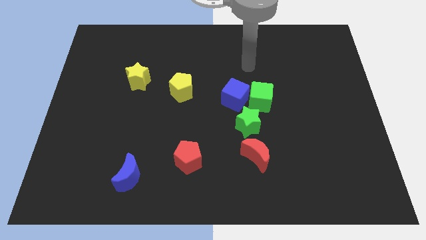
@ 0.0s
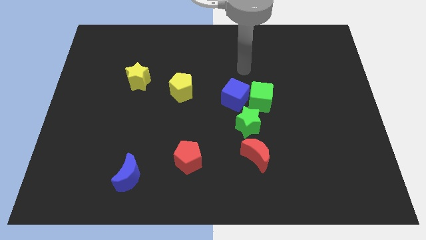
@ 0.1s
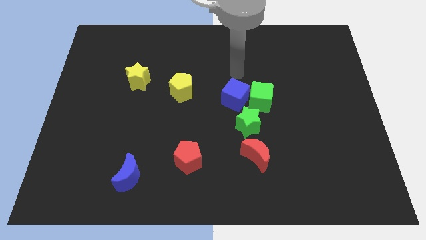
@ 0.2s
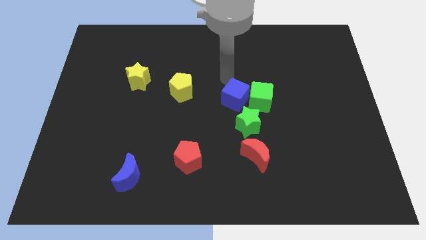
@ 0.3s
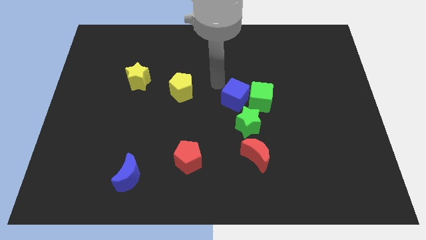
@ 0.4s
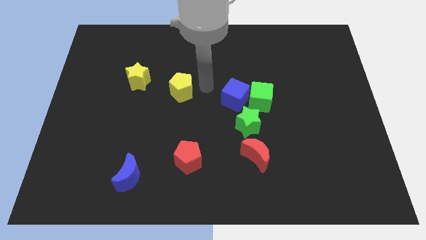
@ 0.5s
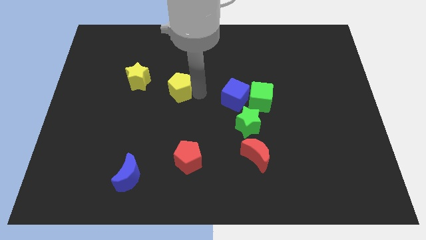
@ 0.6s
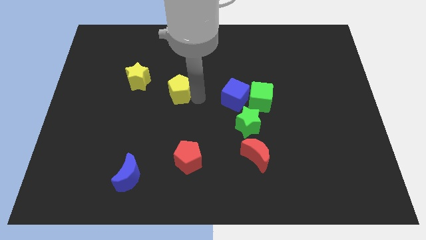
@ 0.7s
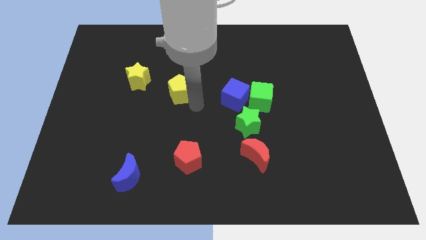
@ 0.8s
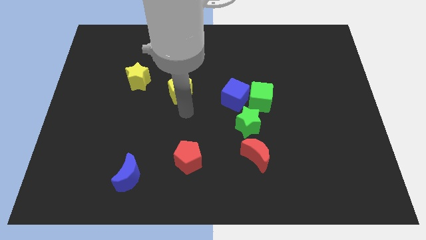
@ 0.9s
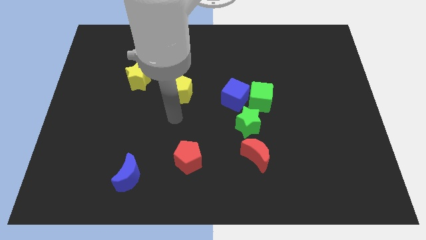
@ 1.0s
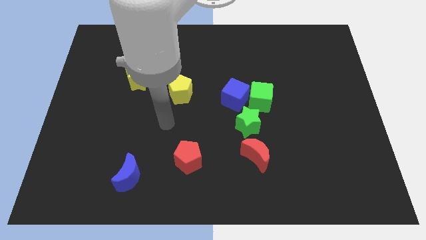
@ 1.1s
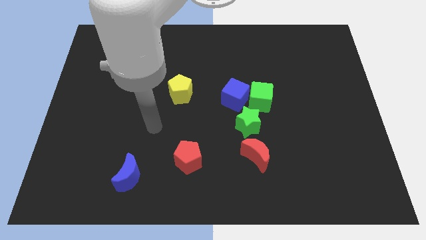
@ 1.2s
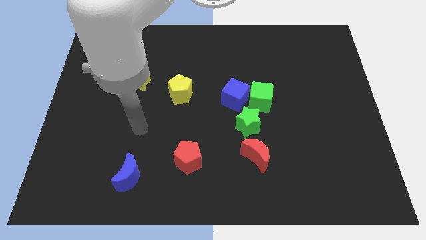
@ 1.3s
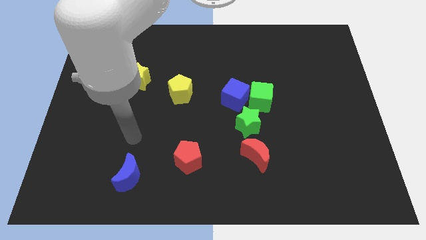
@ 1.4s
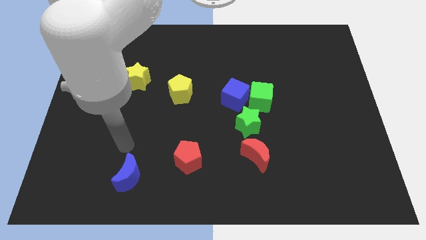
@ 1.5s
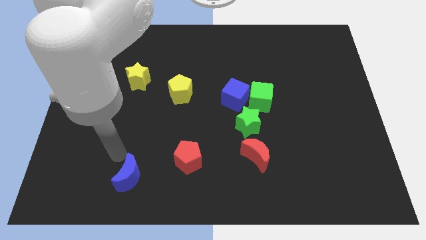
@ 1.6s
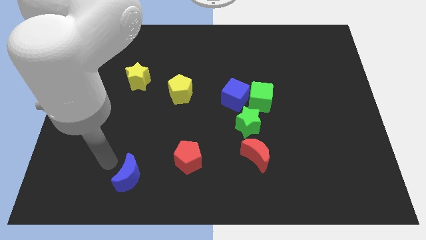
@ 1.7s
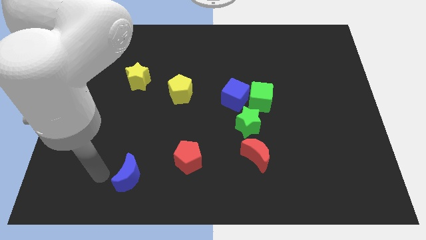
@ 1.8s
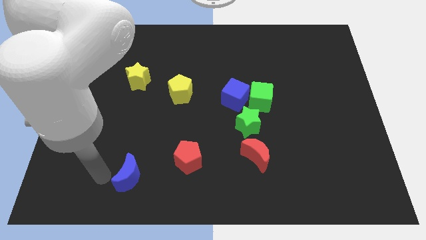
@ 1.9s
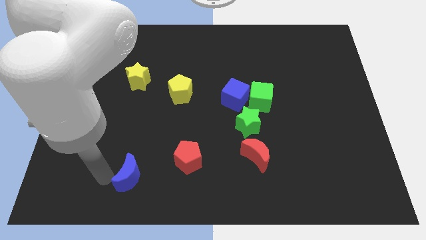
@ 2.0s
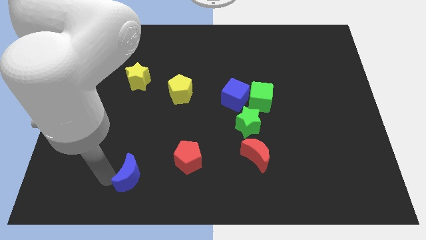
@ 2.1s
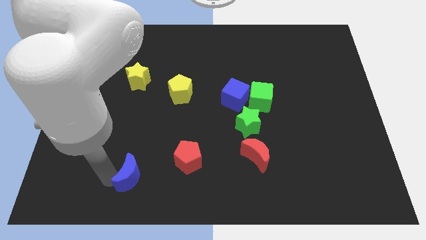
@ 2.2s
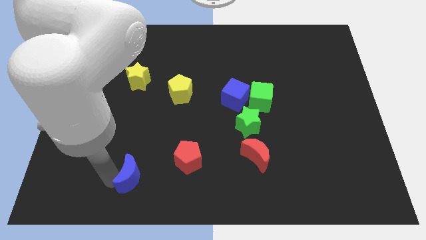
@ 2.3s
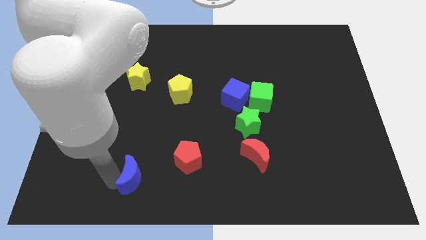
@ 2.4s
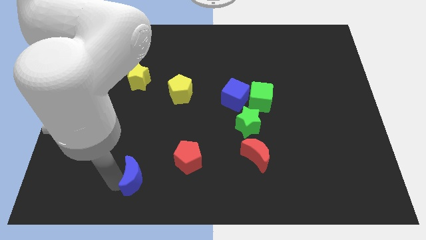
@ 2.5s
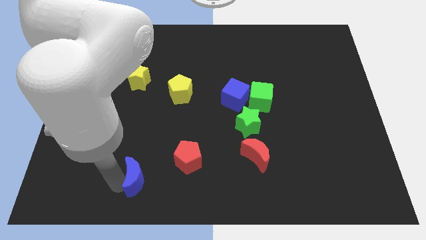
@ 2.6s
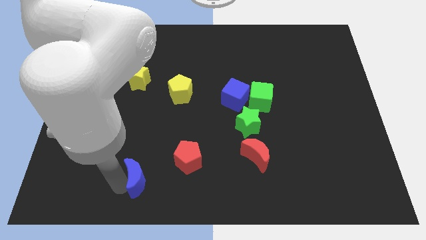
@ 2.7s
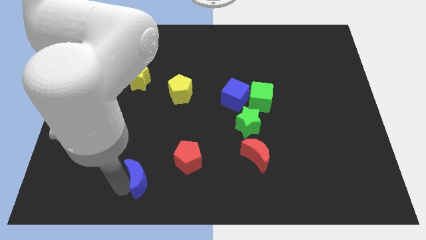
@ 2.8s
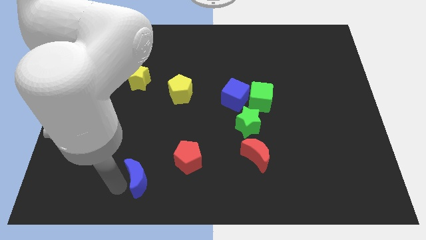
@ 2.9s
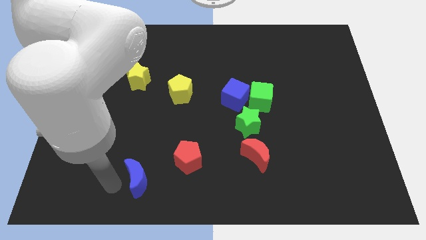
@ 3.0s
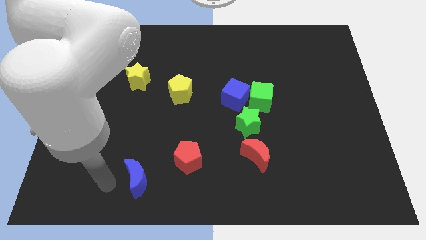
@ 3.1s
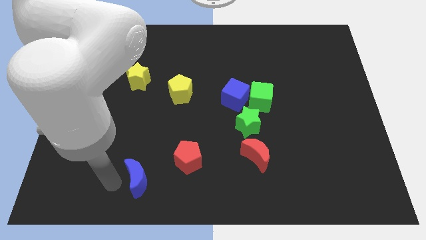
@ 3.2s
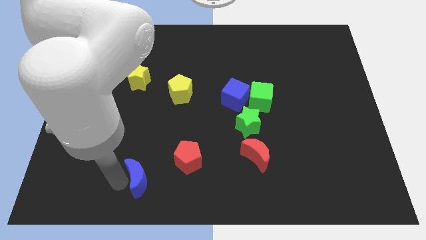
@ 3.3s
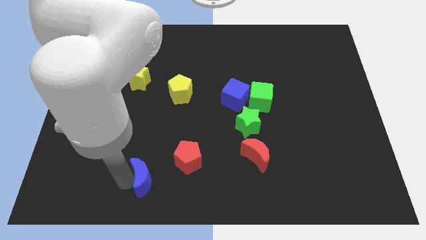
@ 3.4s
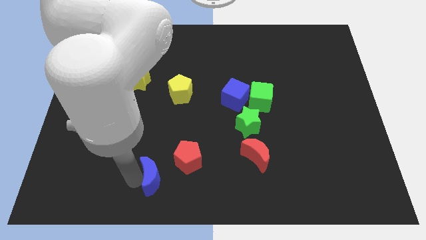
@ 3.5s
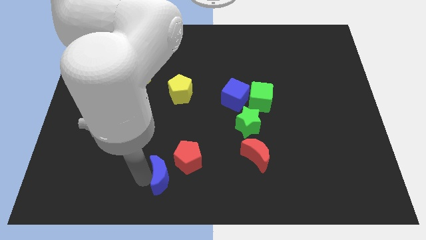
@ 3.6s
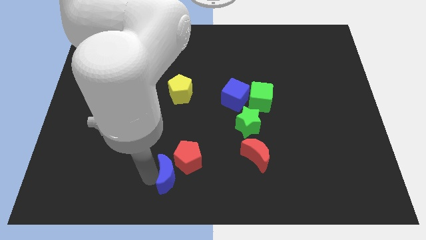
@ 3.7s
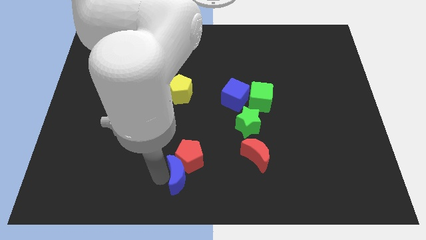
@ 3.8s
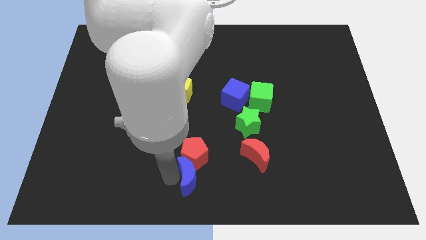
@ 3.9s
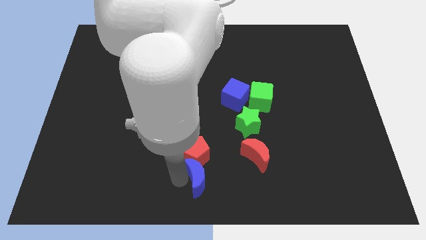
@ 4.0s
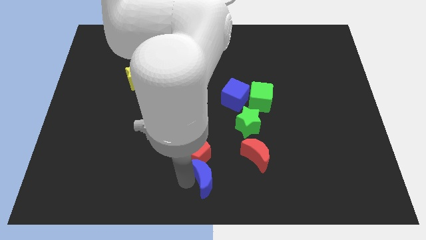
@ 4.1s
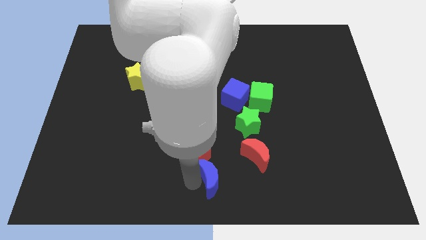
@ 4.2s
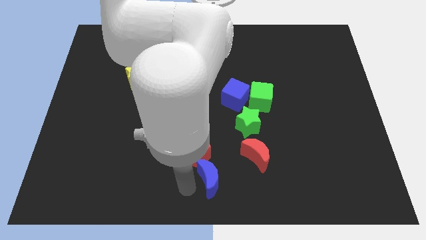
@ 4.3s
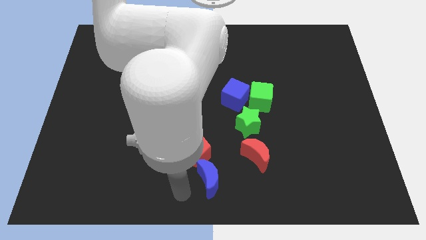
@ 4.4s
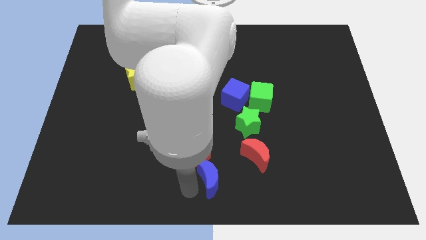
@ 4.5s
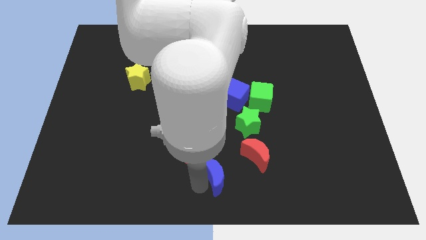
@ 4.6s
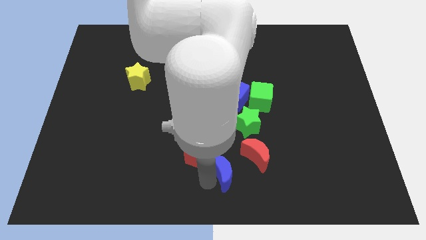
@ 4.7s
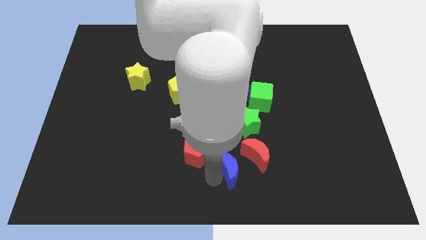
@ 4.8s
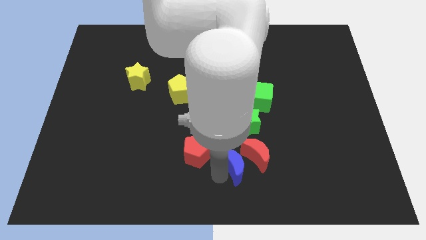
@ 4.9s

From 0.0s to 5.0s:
put the blue moon next to the red moon

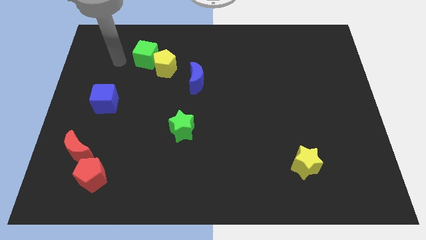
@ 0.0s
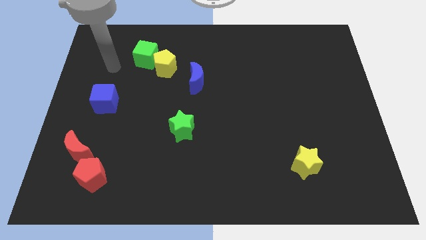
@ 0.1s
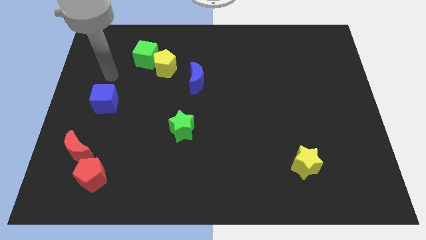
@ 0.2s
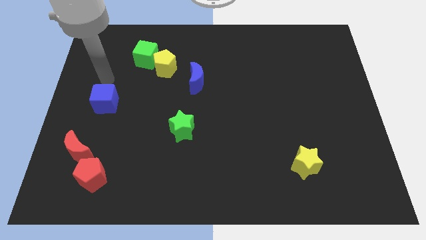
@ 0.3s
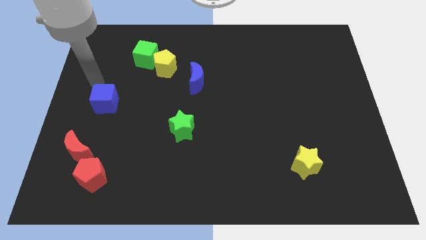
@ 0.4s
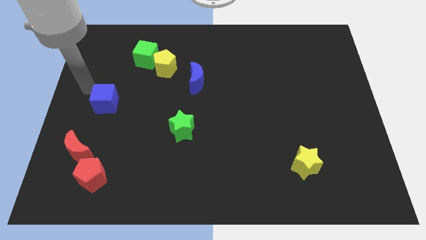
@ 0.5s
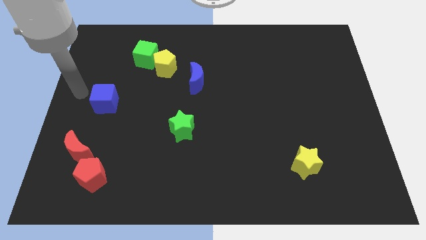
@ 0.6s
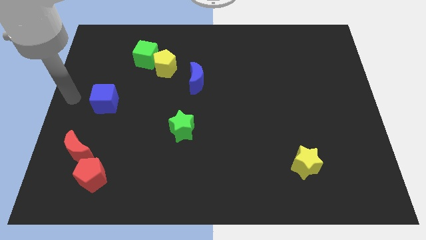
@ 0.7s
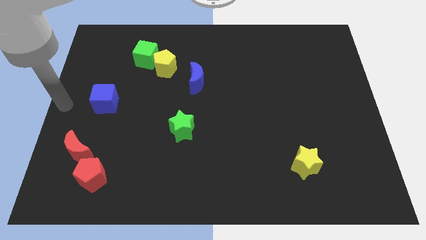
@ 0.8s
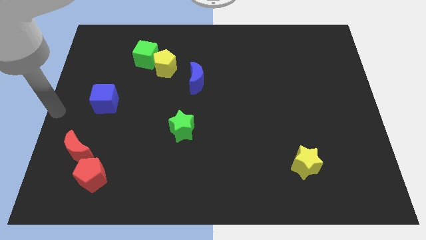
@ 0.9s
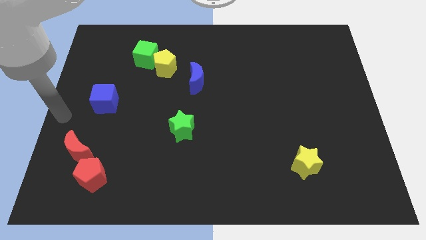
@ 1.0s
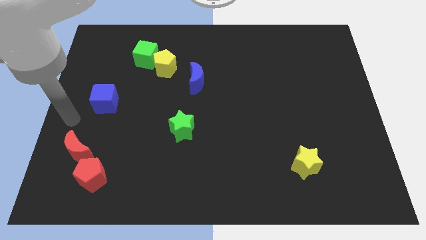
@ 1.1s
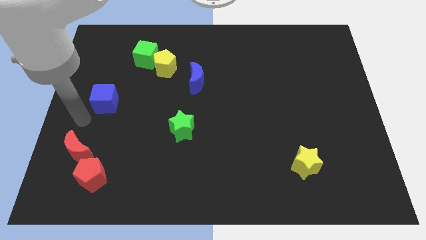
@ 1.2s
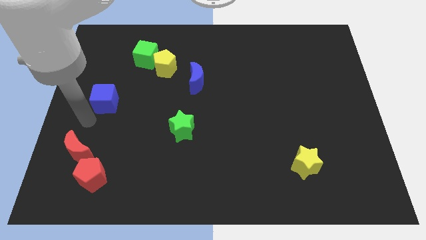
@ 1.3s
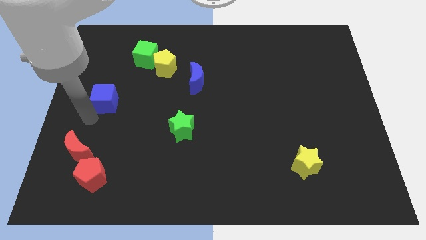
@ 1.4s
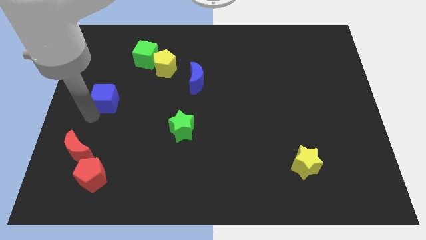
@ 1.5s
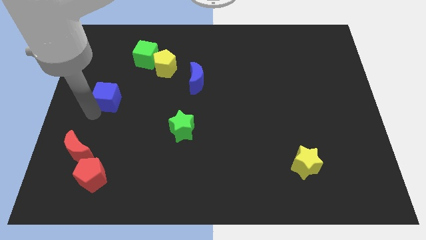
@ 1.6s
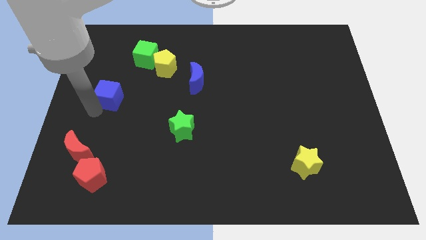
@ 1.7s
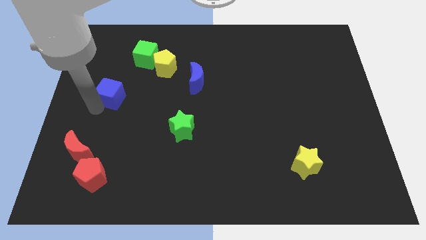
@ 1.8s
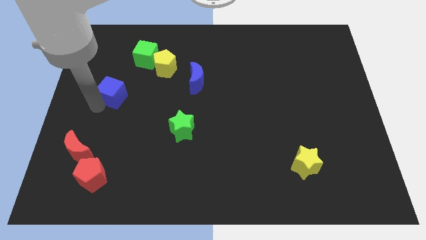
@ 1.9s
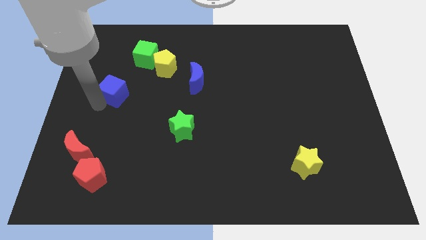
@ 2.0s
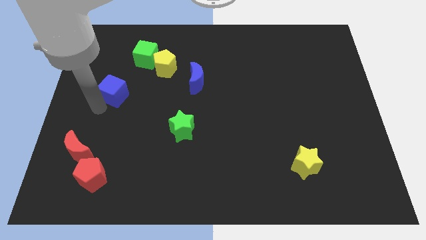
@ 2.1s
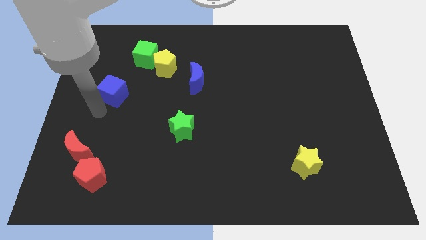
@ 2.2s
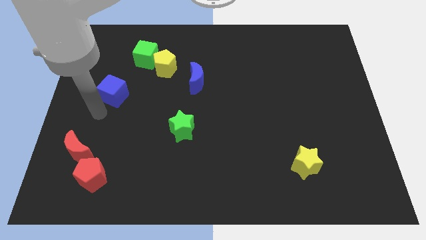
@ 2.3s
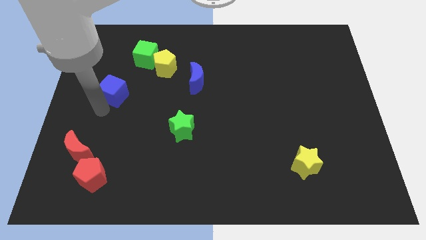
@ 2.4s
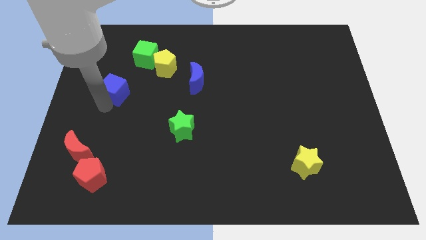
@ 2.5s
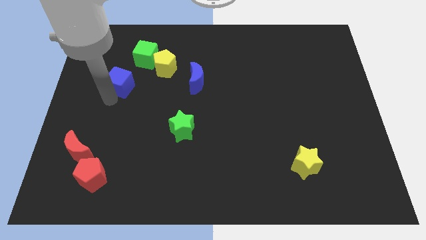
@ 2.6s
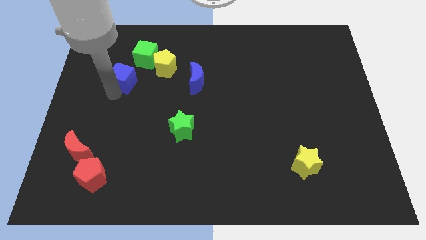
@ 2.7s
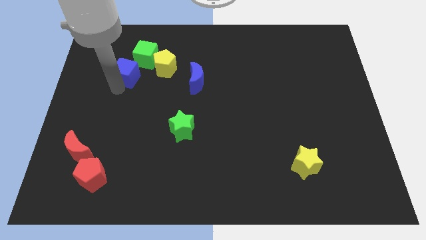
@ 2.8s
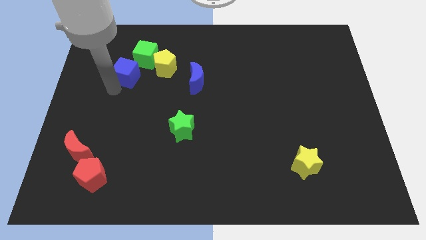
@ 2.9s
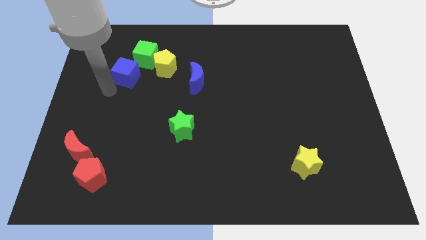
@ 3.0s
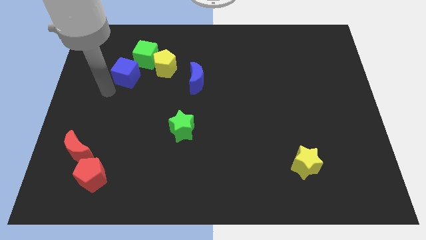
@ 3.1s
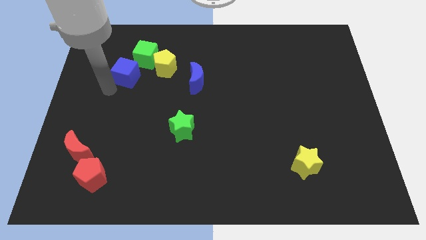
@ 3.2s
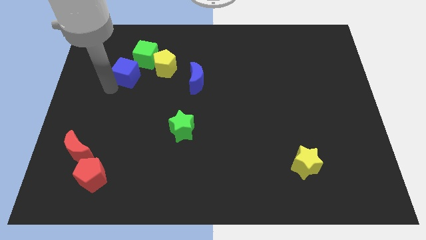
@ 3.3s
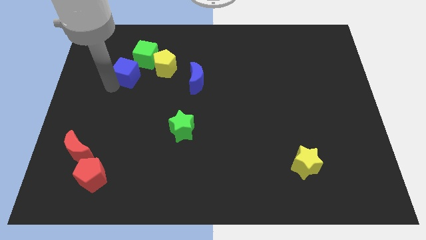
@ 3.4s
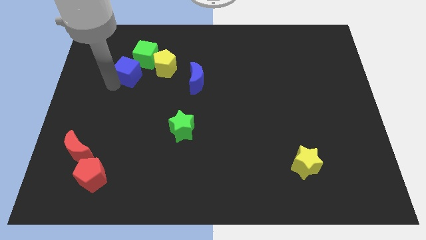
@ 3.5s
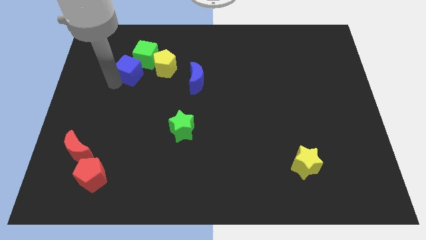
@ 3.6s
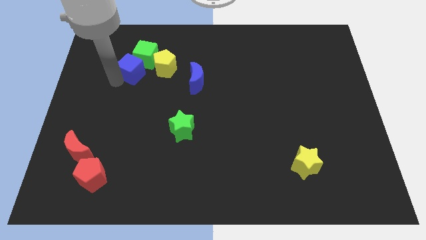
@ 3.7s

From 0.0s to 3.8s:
push the blue cube towards the green cube
